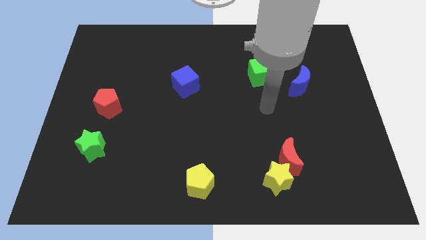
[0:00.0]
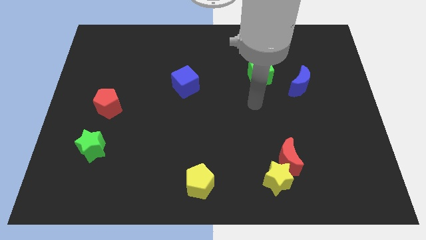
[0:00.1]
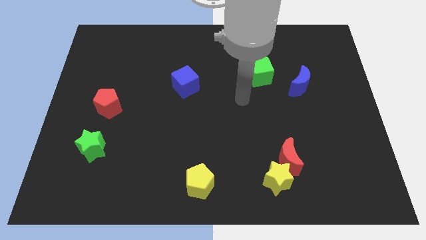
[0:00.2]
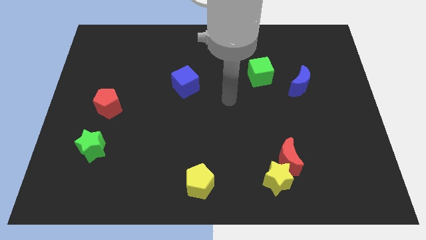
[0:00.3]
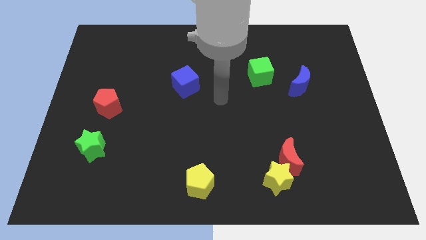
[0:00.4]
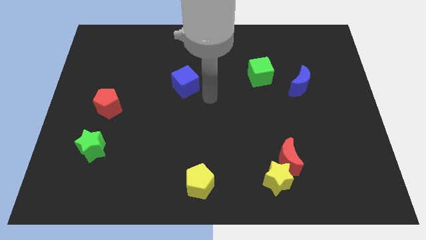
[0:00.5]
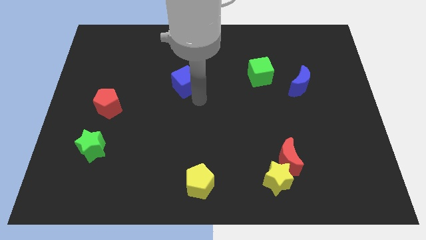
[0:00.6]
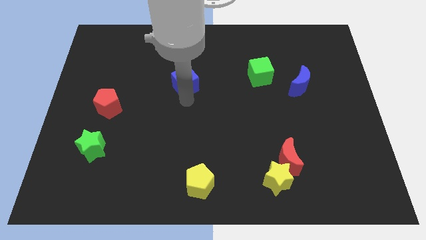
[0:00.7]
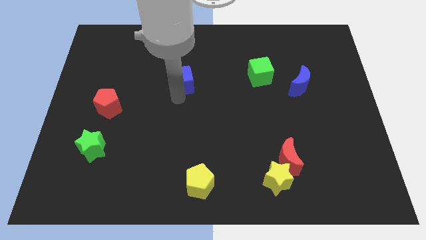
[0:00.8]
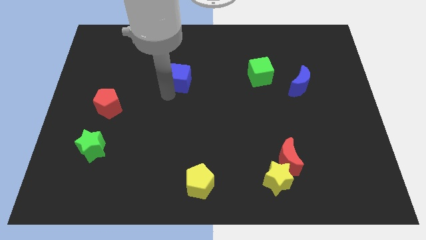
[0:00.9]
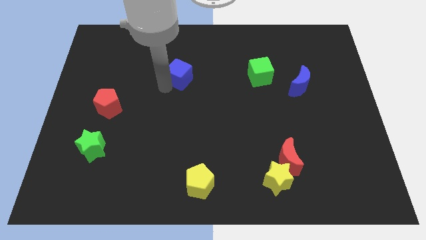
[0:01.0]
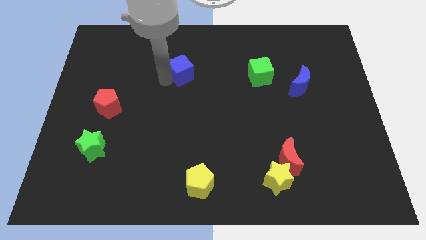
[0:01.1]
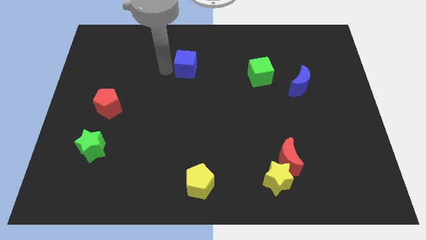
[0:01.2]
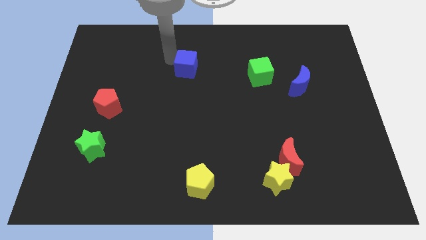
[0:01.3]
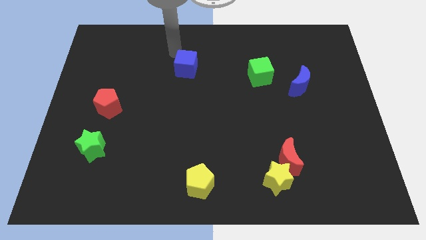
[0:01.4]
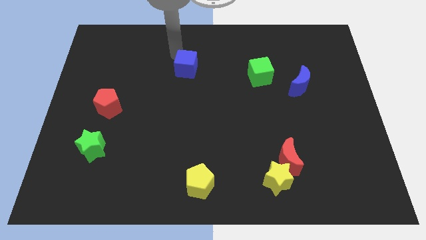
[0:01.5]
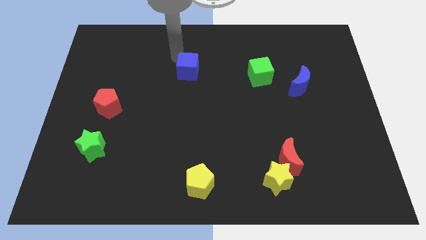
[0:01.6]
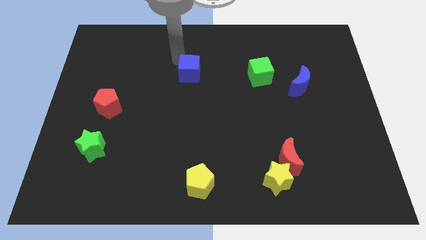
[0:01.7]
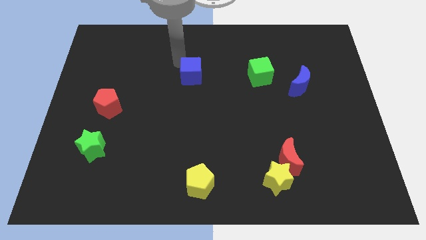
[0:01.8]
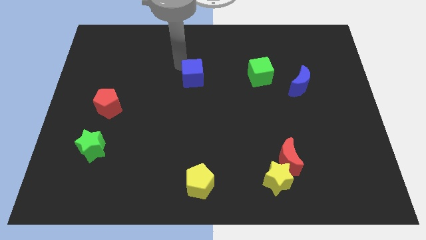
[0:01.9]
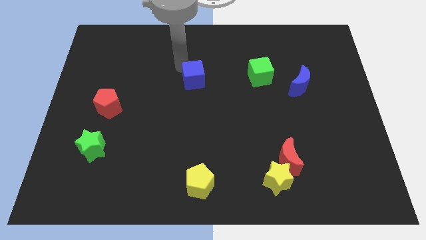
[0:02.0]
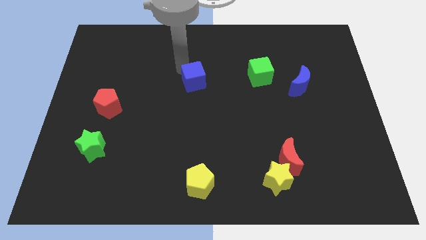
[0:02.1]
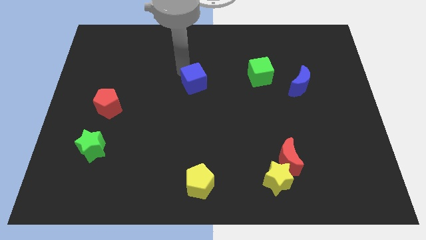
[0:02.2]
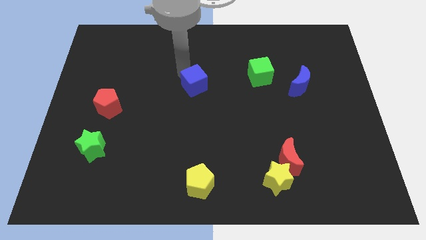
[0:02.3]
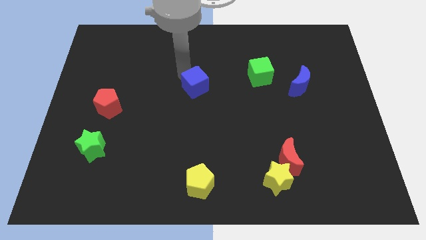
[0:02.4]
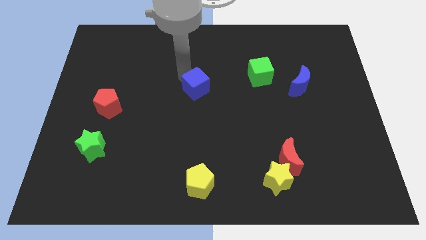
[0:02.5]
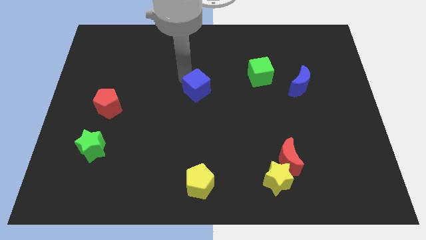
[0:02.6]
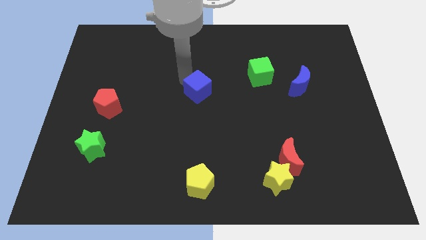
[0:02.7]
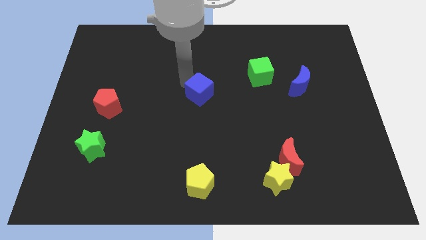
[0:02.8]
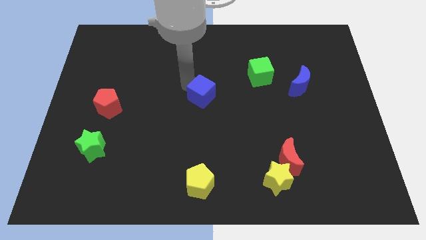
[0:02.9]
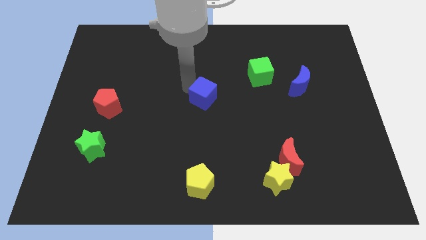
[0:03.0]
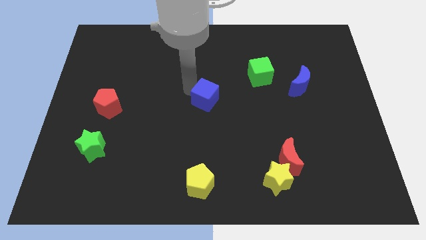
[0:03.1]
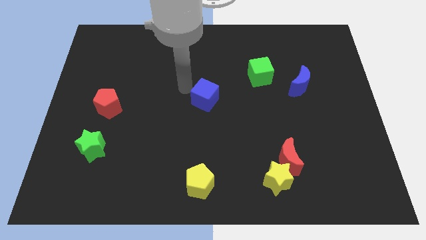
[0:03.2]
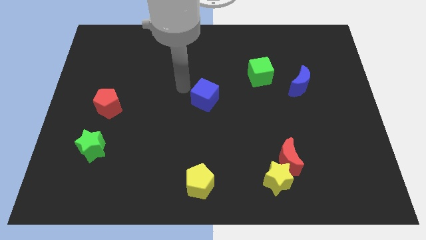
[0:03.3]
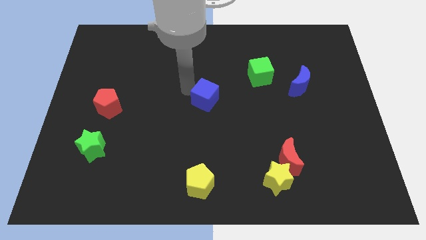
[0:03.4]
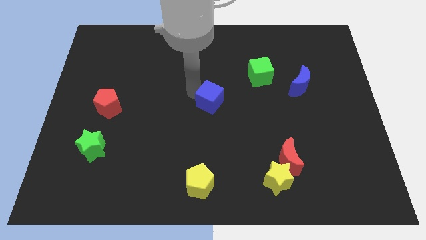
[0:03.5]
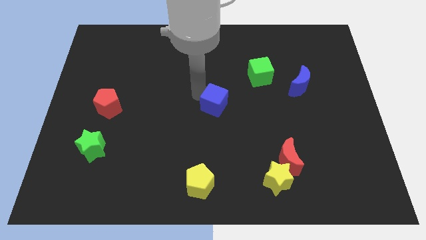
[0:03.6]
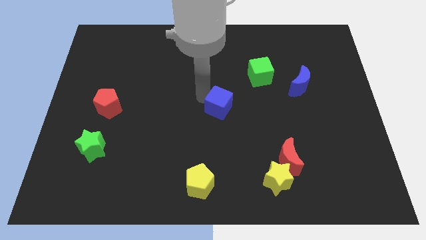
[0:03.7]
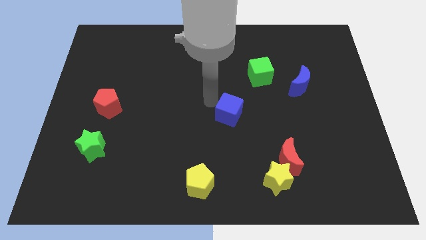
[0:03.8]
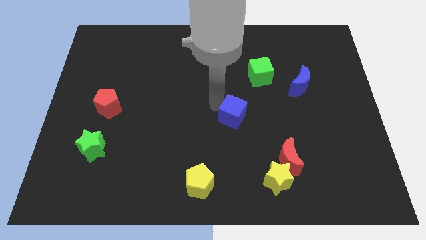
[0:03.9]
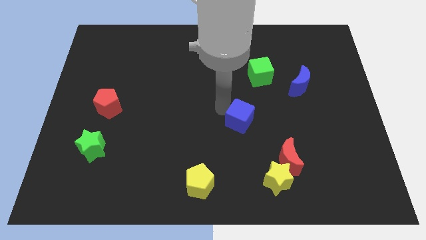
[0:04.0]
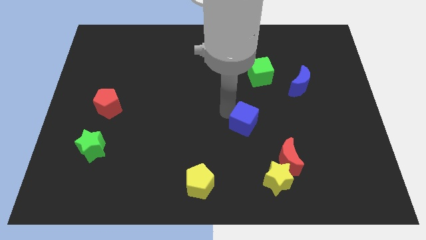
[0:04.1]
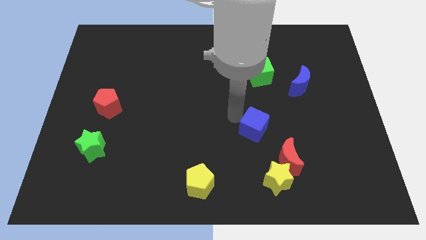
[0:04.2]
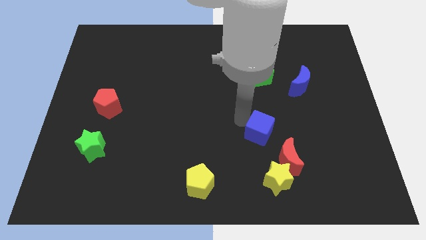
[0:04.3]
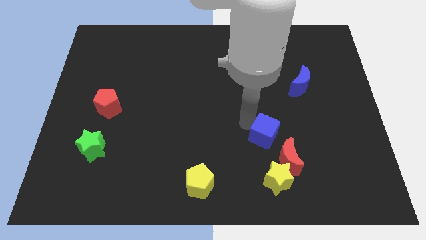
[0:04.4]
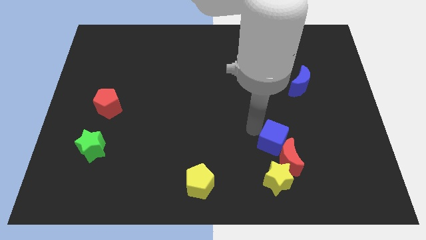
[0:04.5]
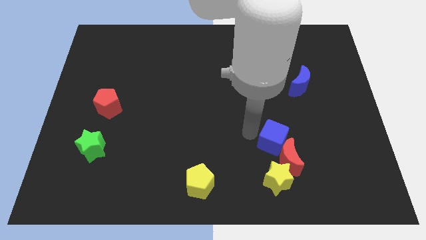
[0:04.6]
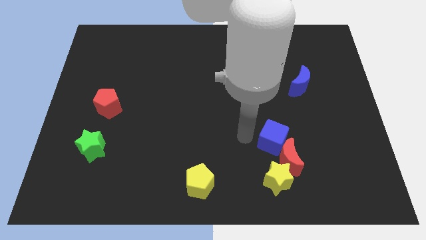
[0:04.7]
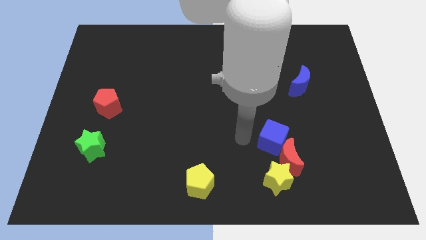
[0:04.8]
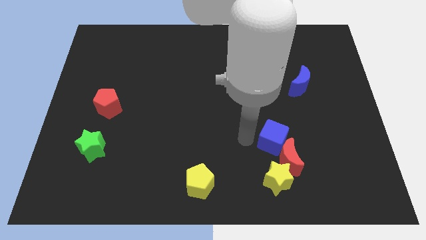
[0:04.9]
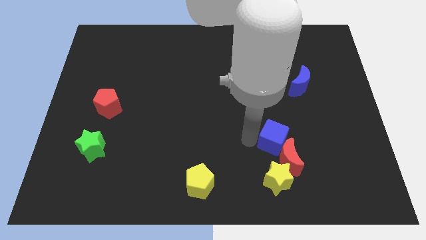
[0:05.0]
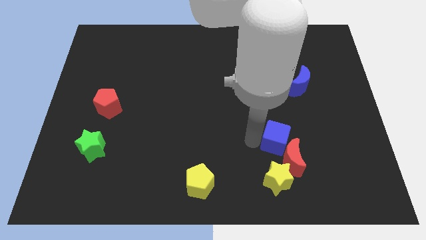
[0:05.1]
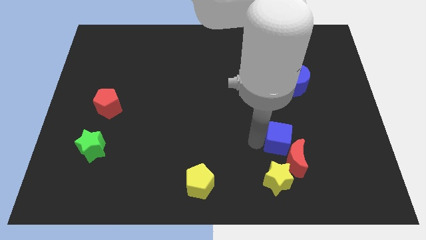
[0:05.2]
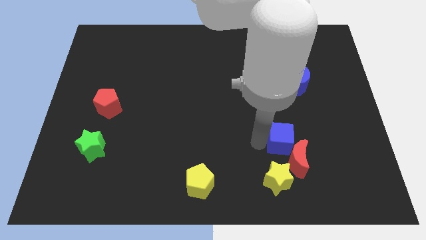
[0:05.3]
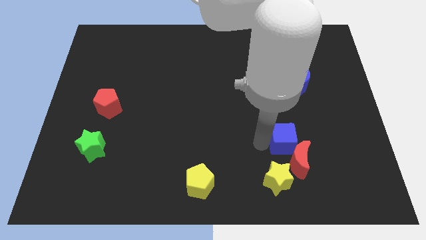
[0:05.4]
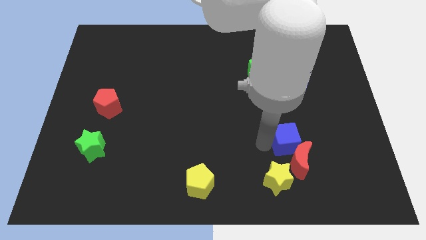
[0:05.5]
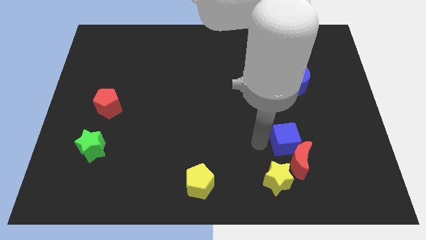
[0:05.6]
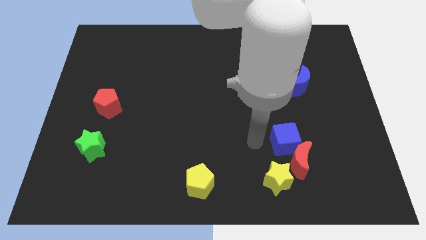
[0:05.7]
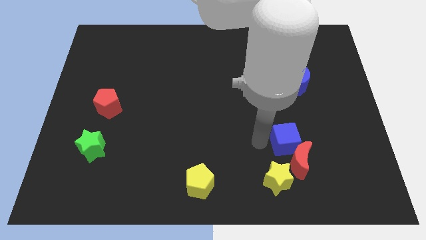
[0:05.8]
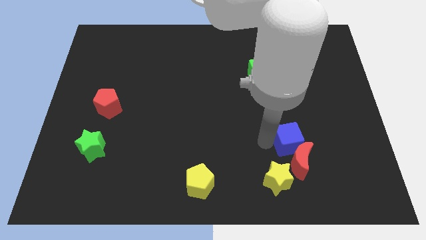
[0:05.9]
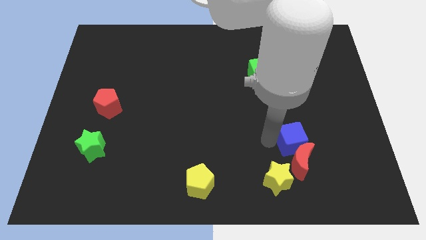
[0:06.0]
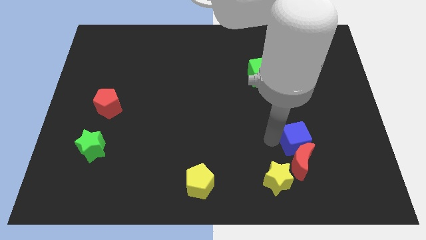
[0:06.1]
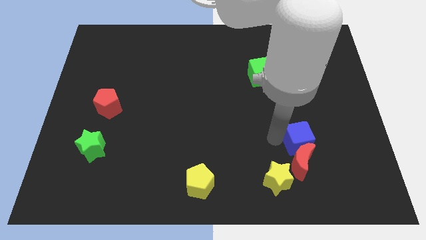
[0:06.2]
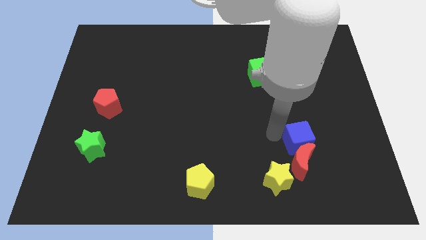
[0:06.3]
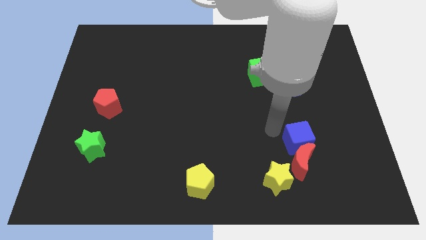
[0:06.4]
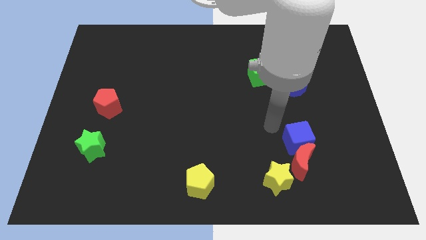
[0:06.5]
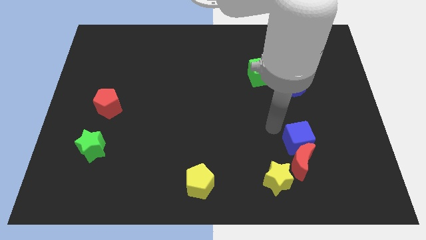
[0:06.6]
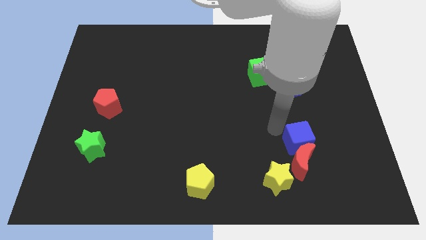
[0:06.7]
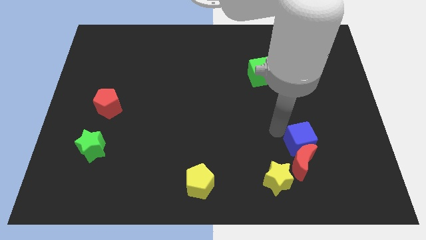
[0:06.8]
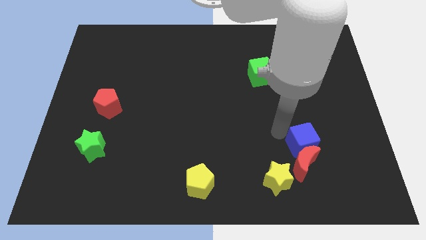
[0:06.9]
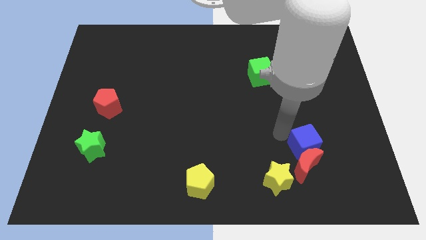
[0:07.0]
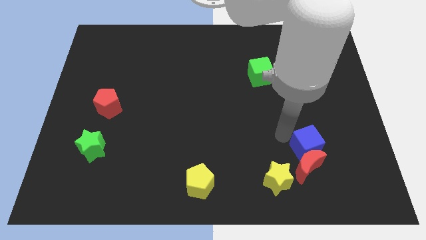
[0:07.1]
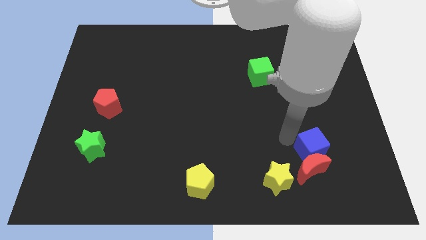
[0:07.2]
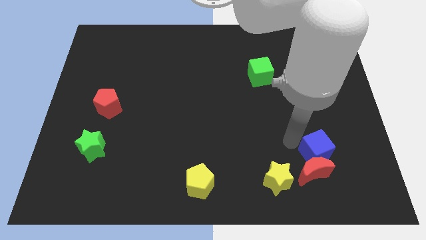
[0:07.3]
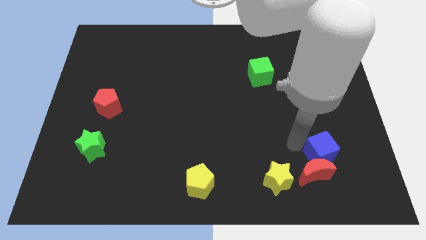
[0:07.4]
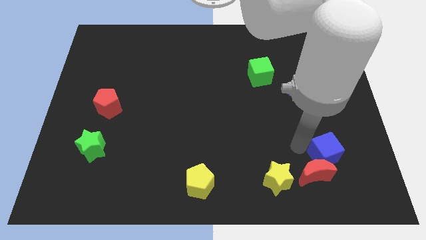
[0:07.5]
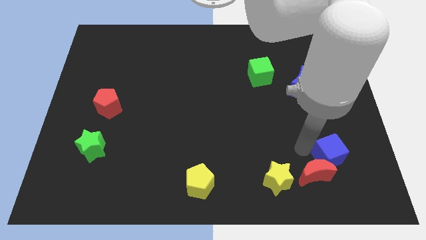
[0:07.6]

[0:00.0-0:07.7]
put the blue cube right of the red moon
